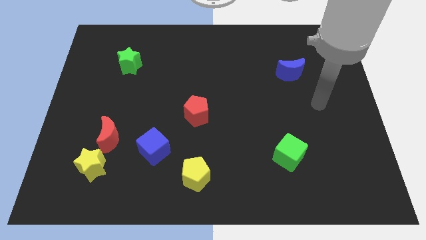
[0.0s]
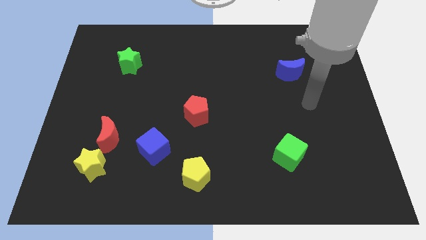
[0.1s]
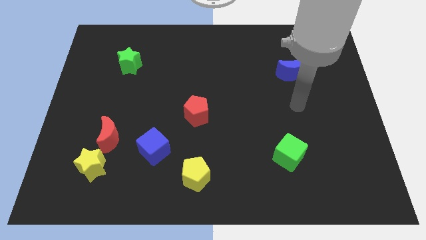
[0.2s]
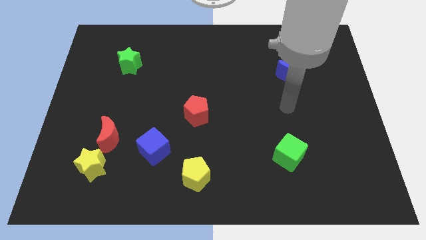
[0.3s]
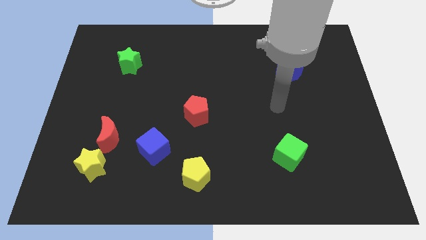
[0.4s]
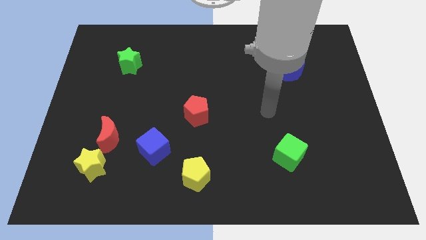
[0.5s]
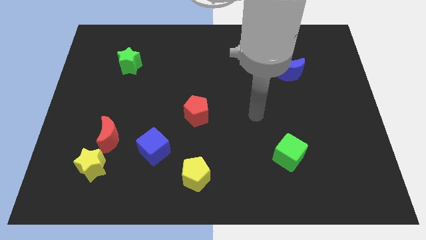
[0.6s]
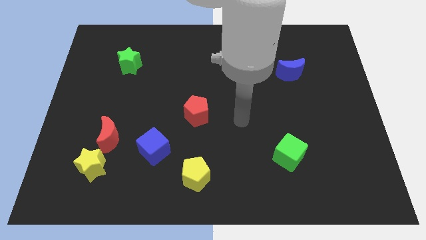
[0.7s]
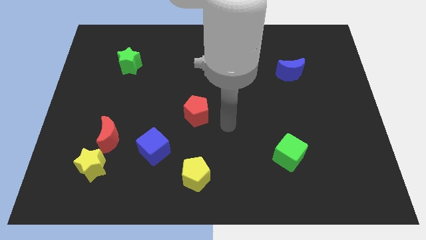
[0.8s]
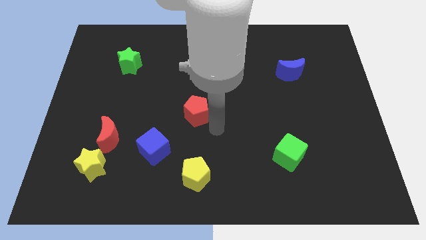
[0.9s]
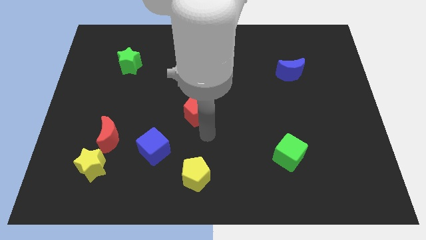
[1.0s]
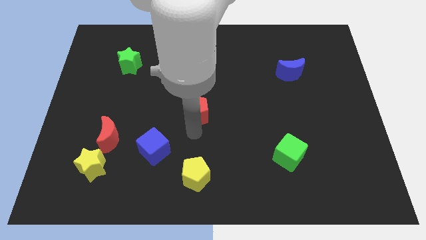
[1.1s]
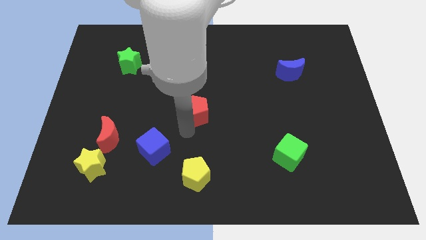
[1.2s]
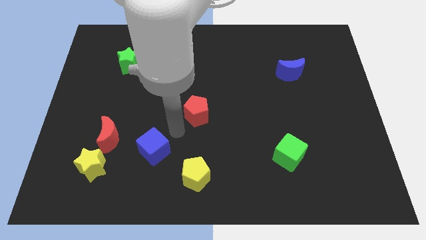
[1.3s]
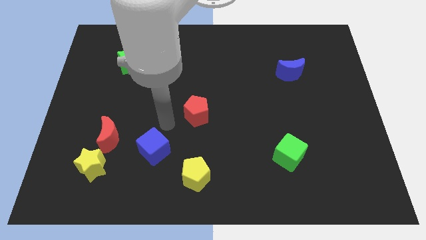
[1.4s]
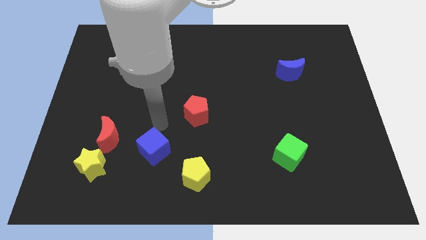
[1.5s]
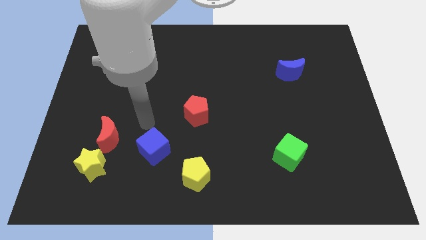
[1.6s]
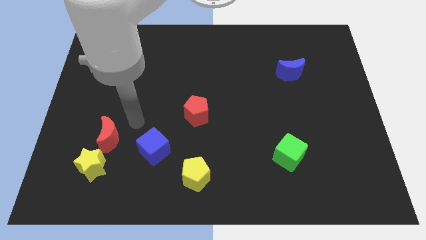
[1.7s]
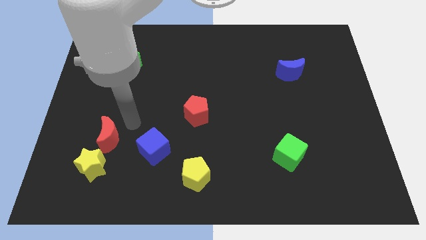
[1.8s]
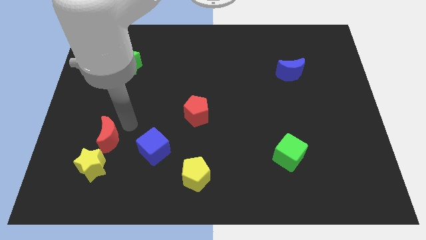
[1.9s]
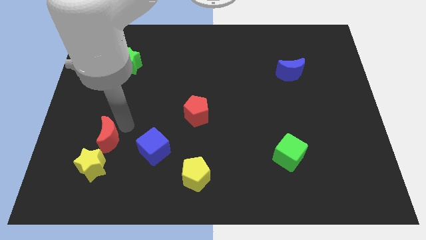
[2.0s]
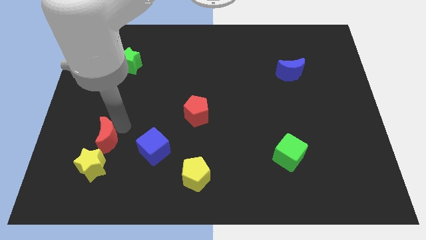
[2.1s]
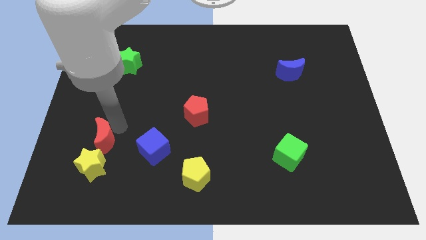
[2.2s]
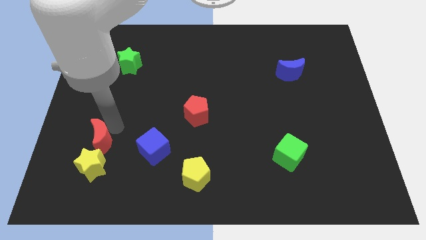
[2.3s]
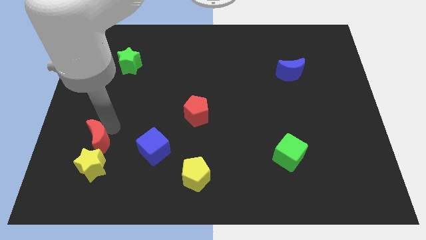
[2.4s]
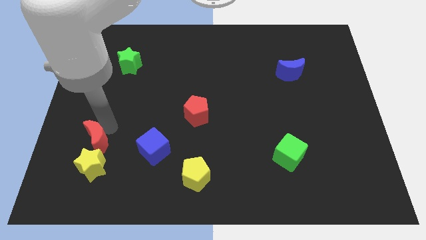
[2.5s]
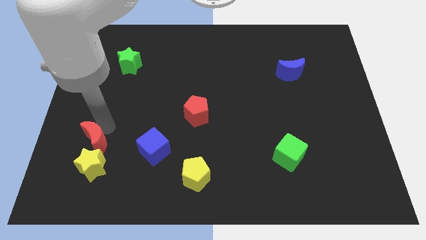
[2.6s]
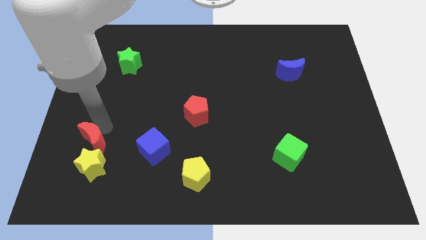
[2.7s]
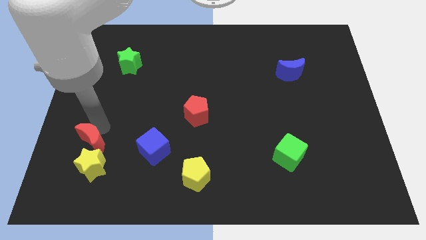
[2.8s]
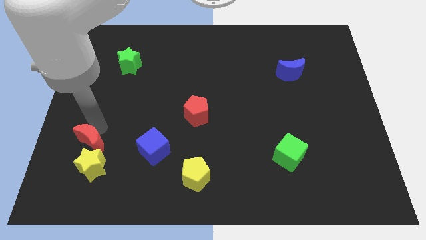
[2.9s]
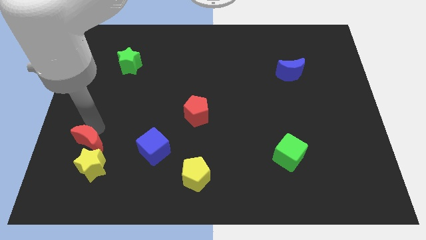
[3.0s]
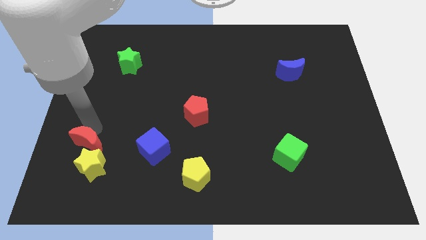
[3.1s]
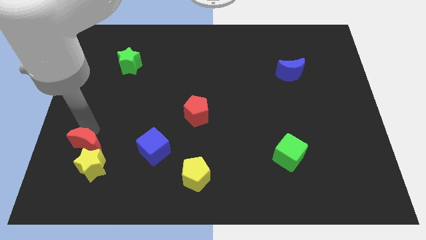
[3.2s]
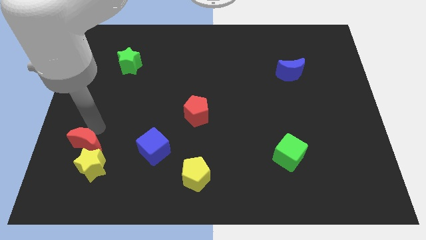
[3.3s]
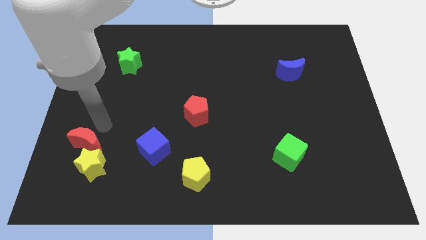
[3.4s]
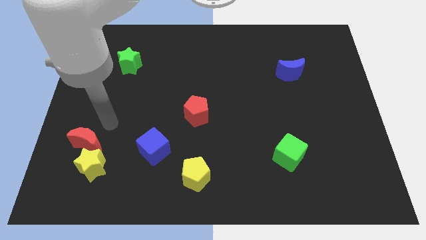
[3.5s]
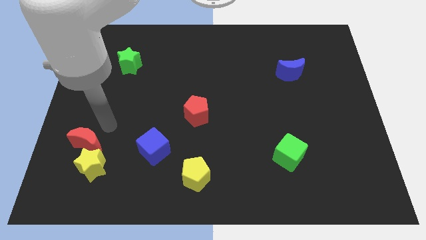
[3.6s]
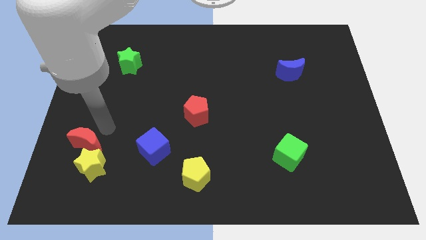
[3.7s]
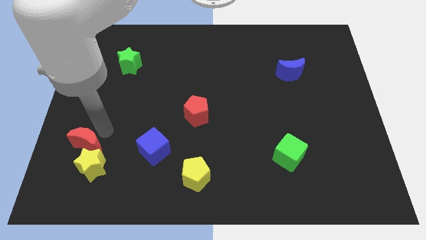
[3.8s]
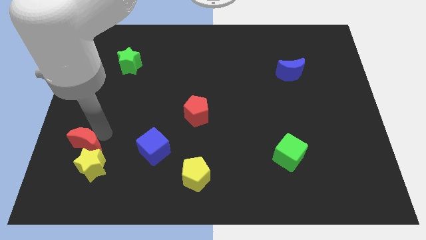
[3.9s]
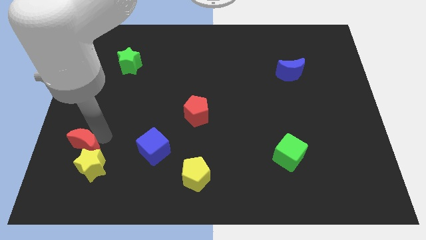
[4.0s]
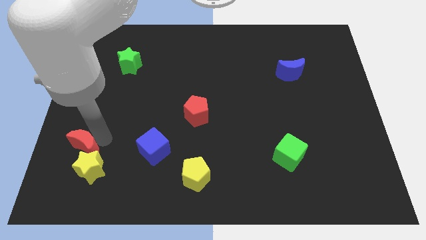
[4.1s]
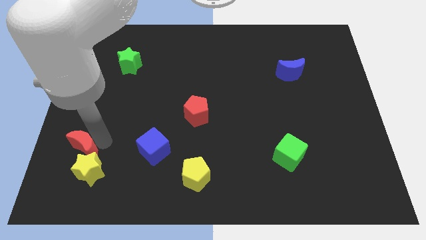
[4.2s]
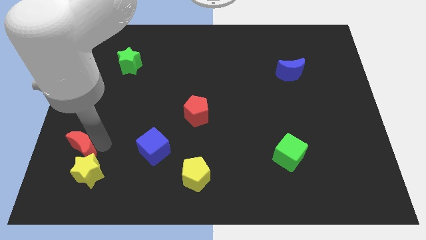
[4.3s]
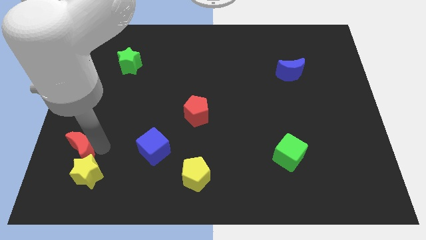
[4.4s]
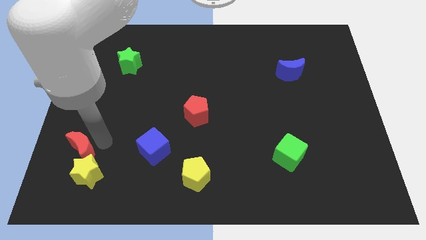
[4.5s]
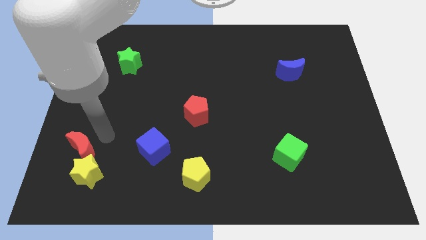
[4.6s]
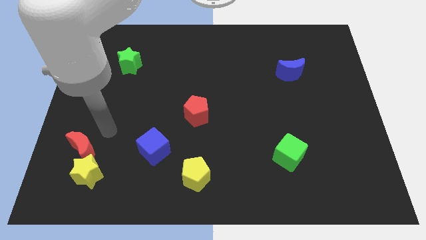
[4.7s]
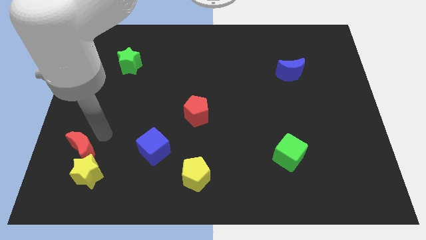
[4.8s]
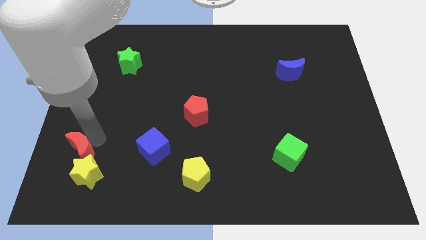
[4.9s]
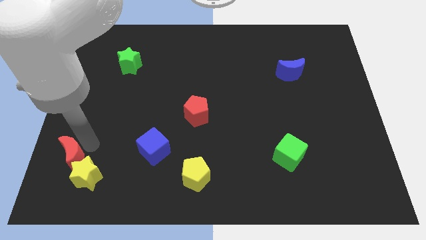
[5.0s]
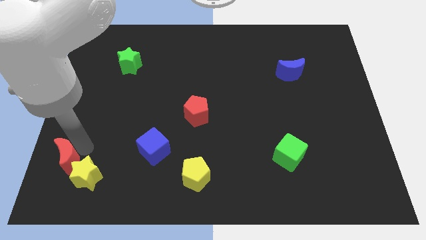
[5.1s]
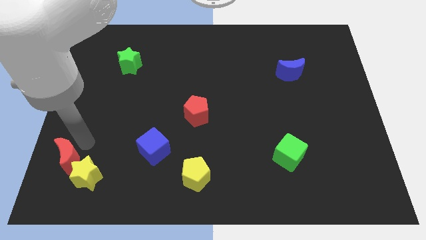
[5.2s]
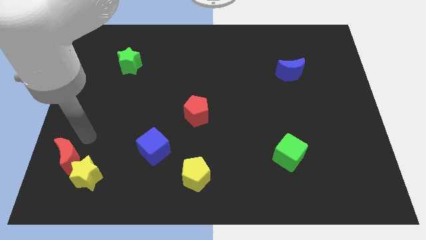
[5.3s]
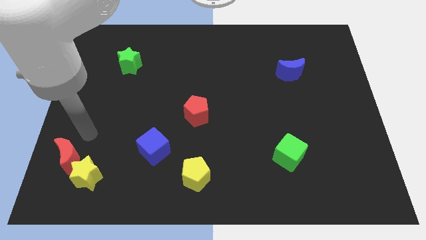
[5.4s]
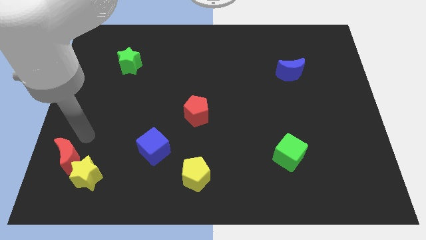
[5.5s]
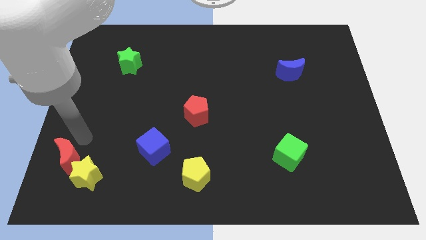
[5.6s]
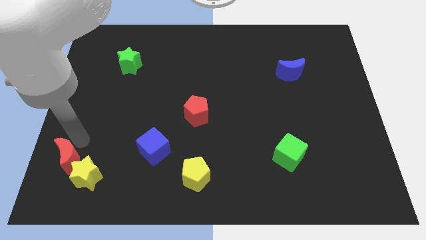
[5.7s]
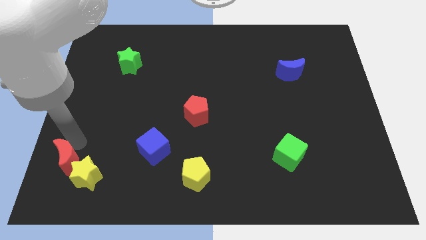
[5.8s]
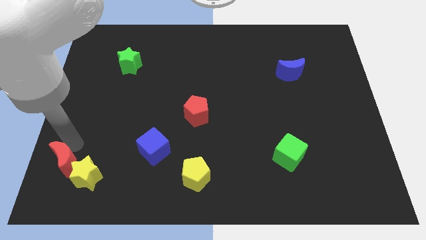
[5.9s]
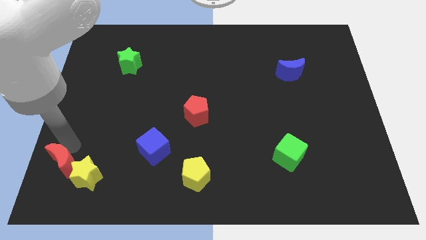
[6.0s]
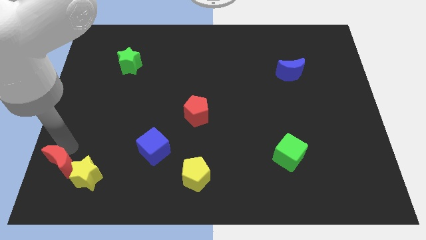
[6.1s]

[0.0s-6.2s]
slide the red moon to the bottom left corner
